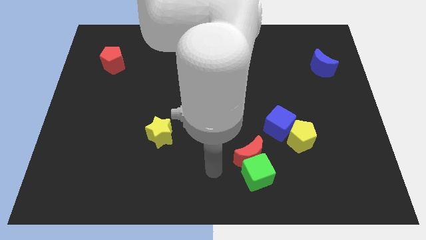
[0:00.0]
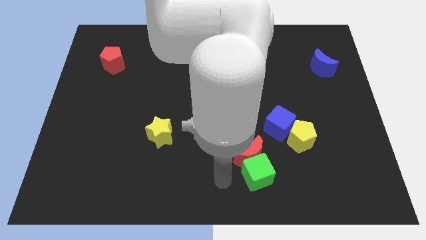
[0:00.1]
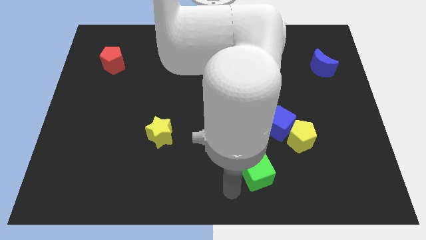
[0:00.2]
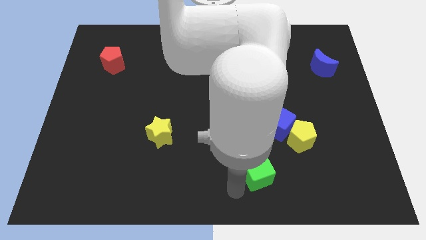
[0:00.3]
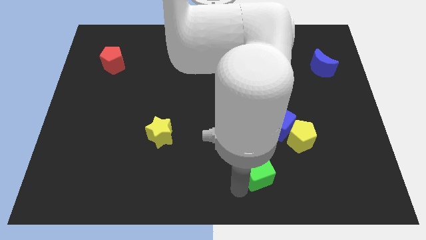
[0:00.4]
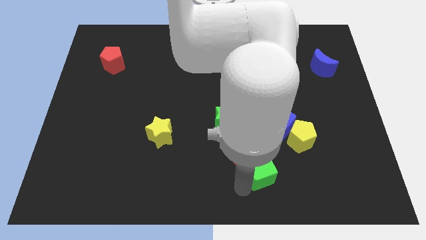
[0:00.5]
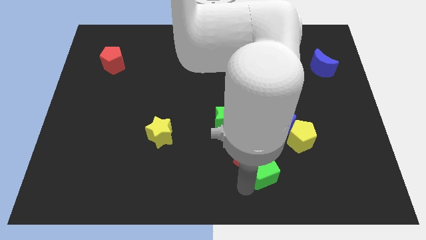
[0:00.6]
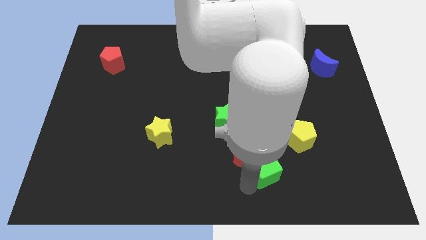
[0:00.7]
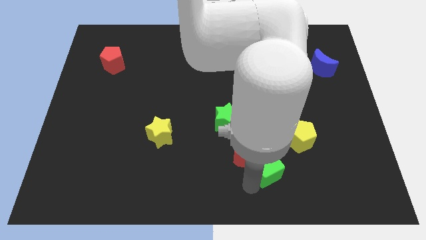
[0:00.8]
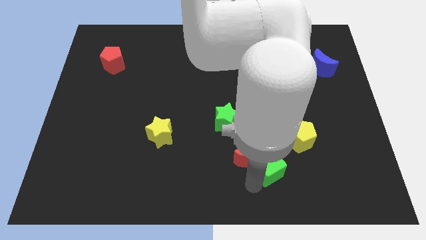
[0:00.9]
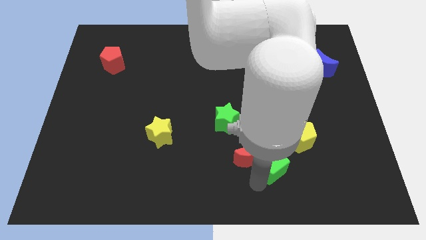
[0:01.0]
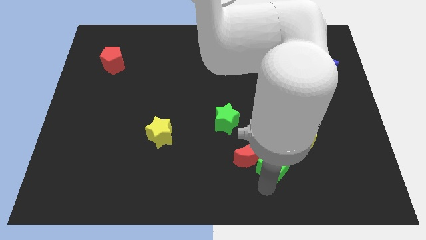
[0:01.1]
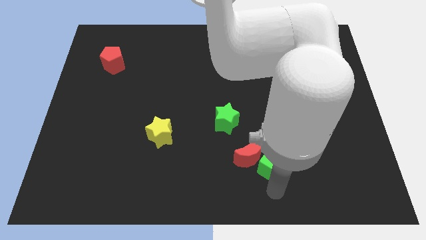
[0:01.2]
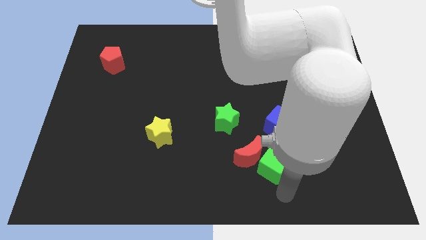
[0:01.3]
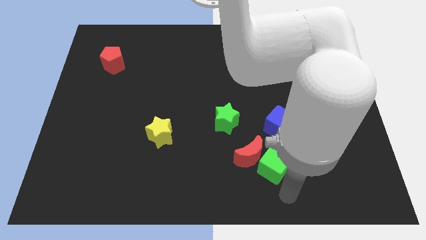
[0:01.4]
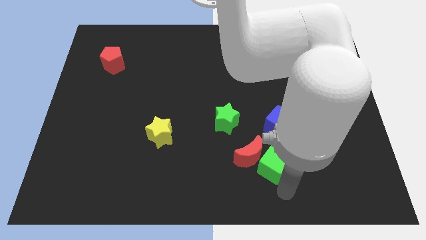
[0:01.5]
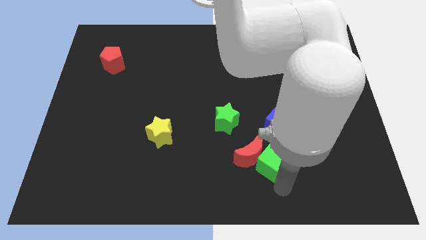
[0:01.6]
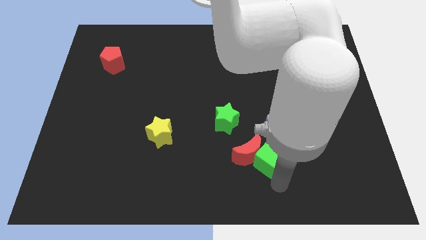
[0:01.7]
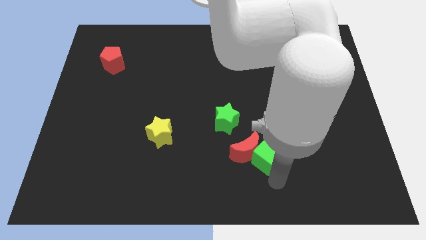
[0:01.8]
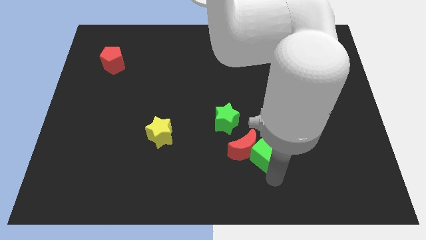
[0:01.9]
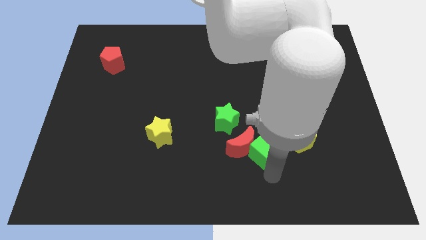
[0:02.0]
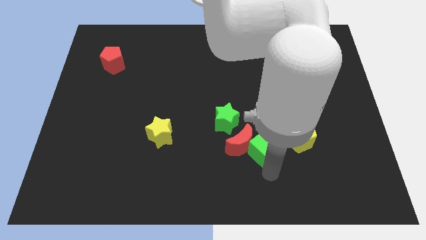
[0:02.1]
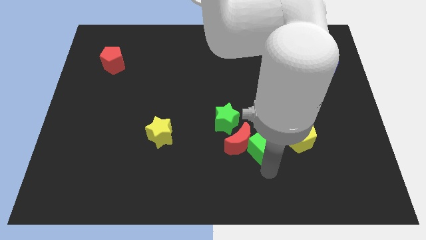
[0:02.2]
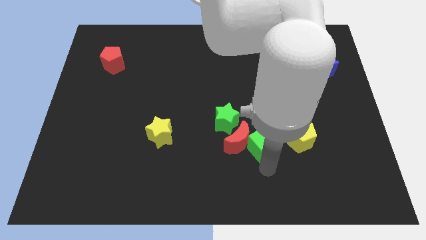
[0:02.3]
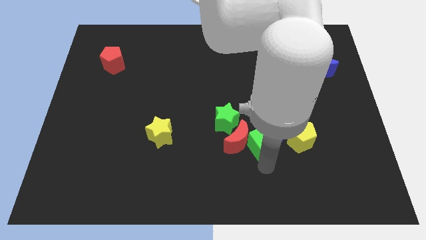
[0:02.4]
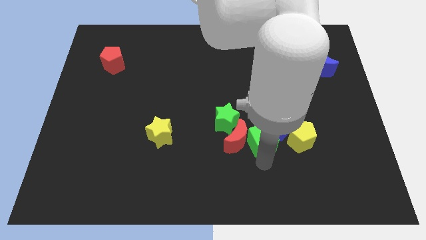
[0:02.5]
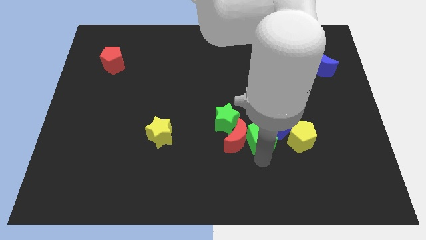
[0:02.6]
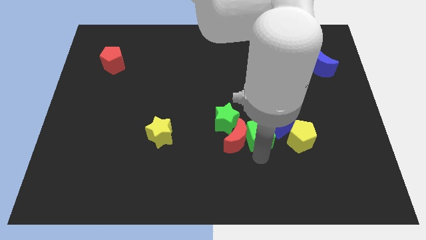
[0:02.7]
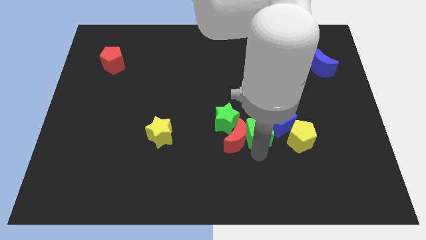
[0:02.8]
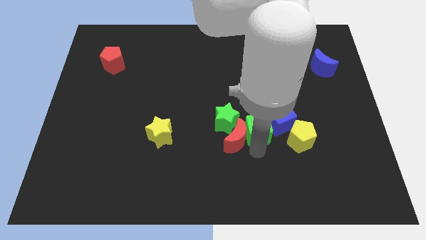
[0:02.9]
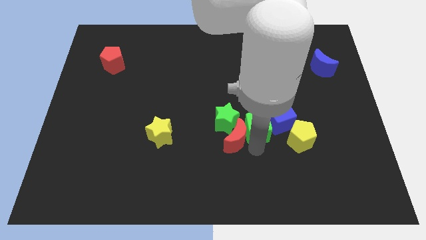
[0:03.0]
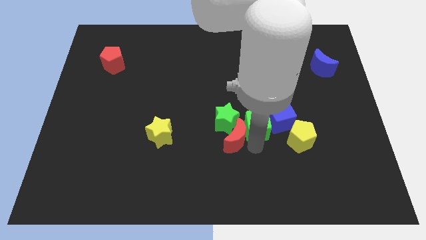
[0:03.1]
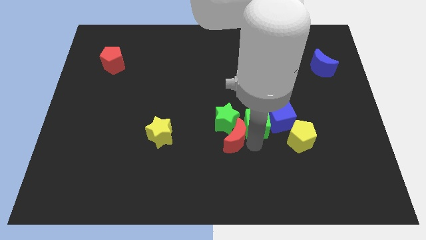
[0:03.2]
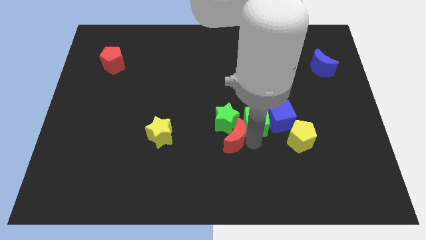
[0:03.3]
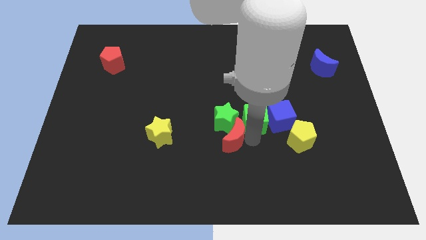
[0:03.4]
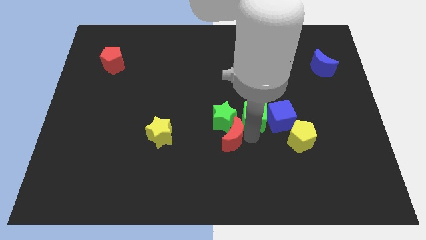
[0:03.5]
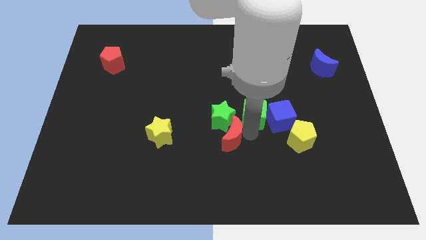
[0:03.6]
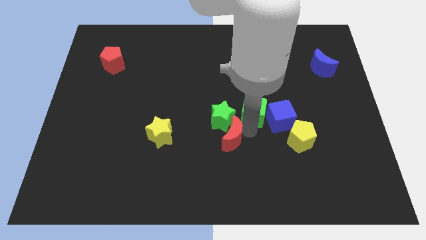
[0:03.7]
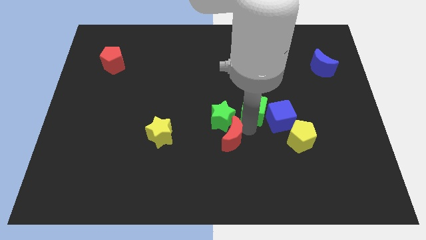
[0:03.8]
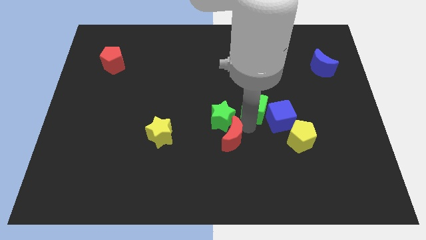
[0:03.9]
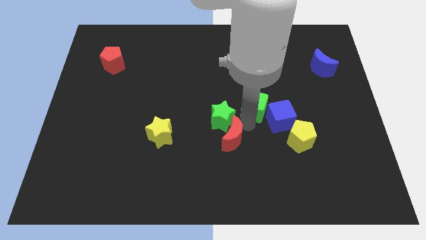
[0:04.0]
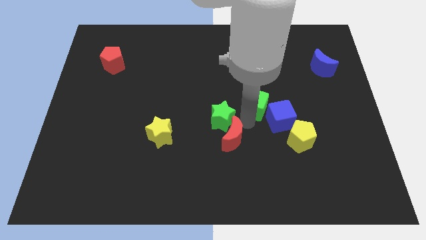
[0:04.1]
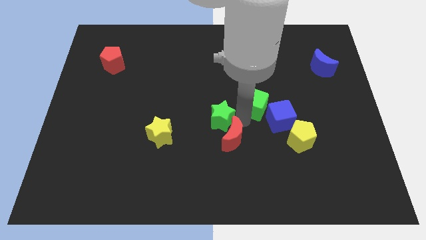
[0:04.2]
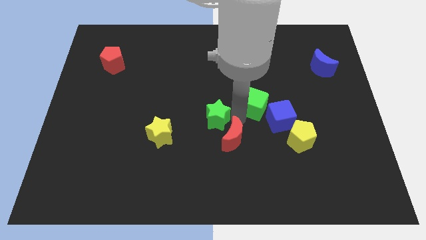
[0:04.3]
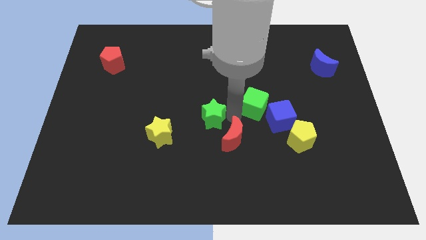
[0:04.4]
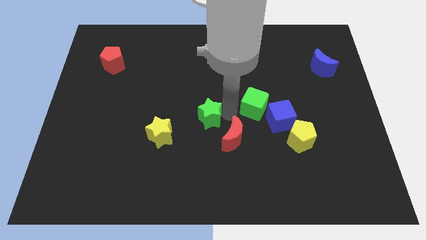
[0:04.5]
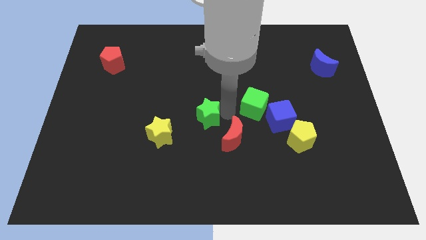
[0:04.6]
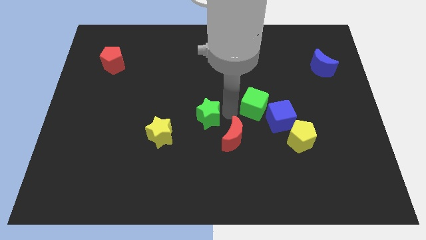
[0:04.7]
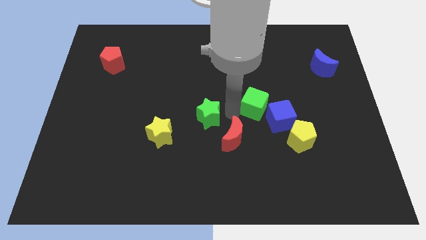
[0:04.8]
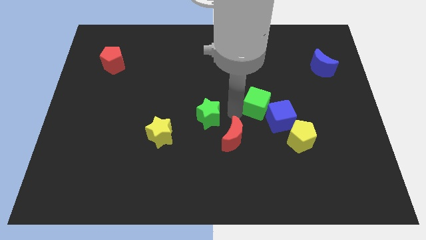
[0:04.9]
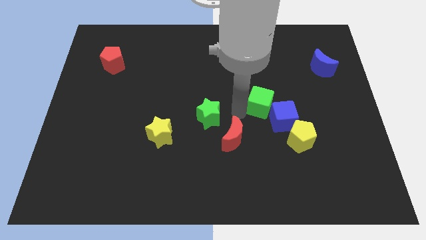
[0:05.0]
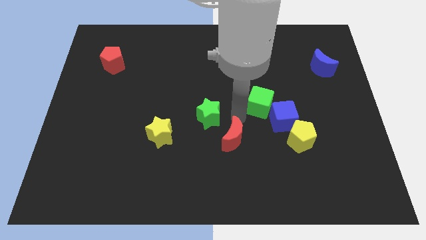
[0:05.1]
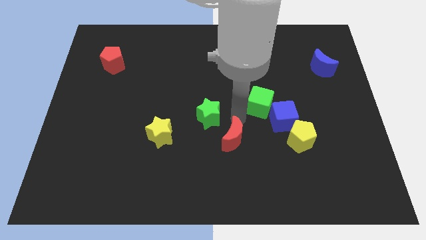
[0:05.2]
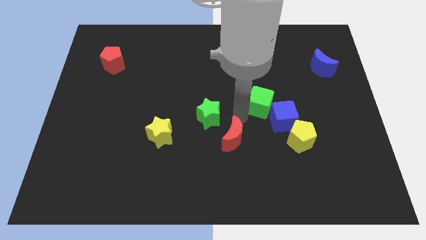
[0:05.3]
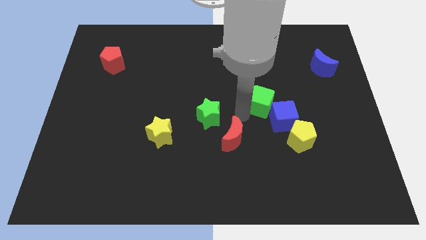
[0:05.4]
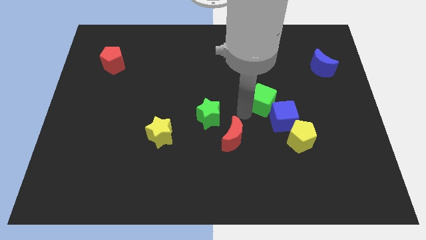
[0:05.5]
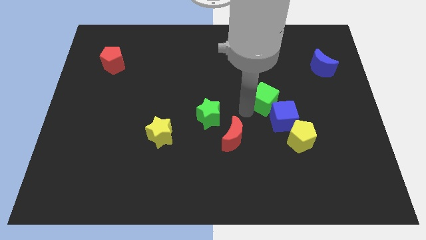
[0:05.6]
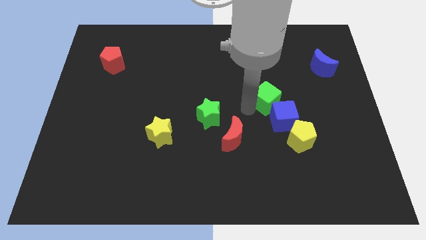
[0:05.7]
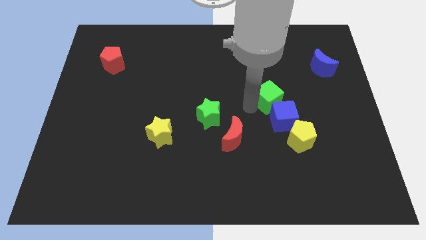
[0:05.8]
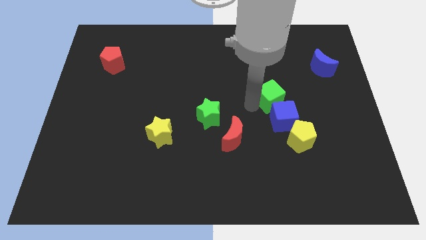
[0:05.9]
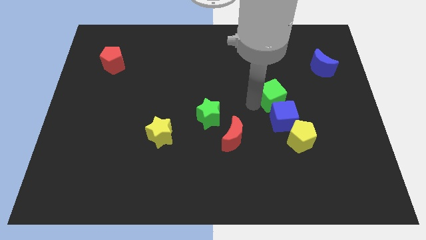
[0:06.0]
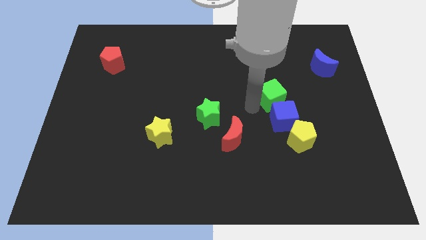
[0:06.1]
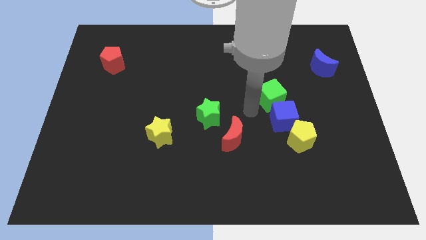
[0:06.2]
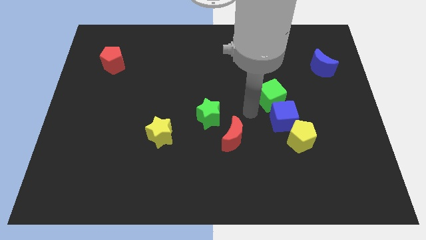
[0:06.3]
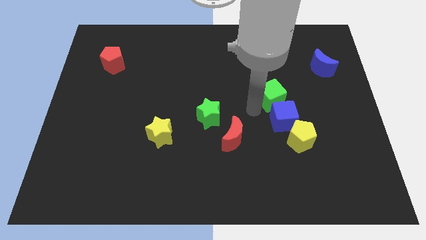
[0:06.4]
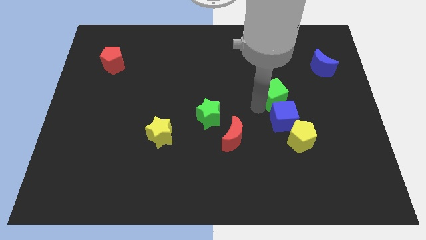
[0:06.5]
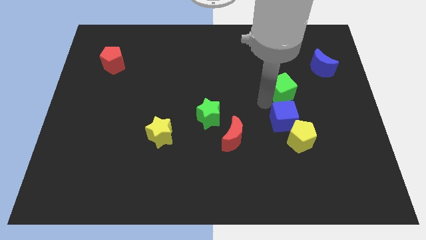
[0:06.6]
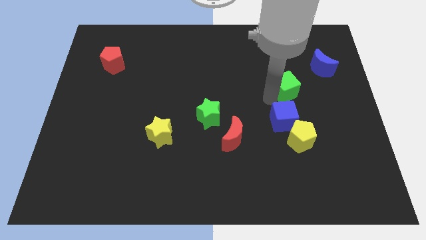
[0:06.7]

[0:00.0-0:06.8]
move the green cube to the bottom left side of the blue moon
